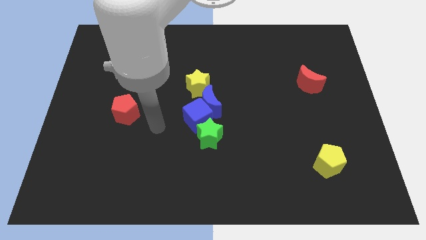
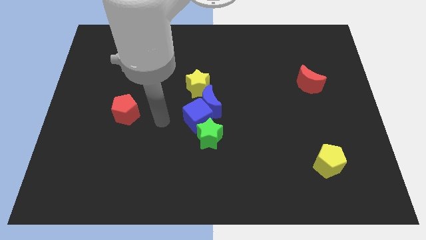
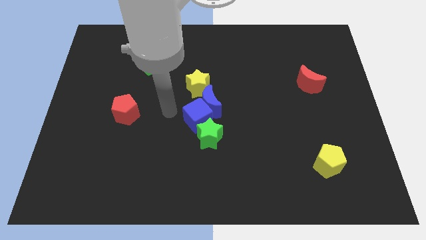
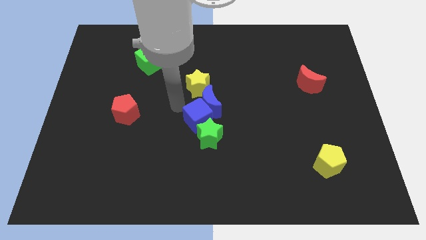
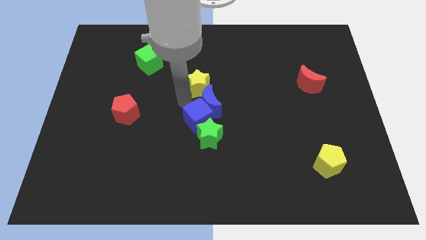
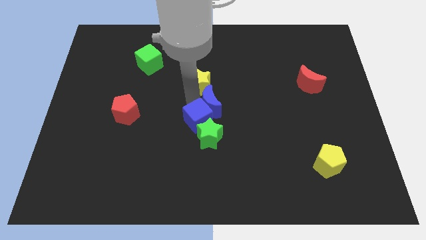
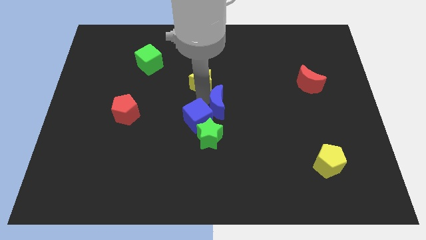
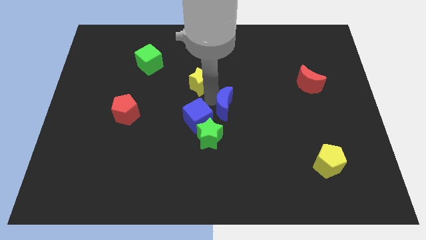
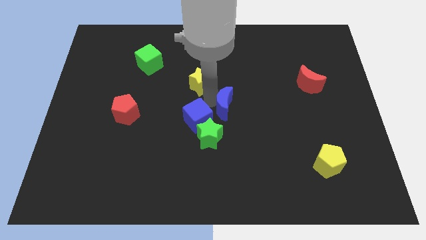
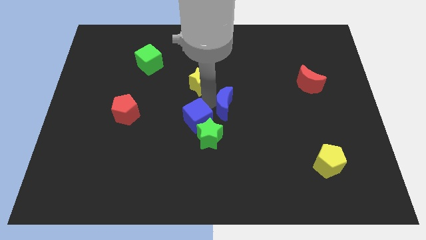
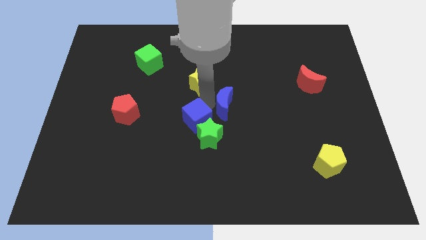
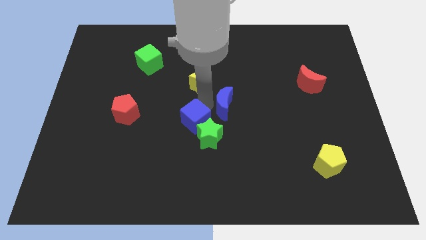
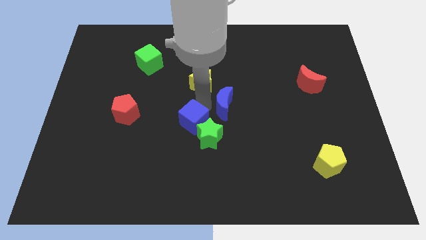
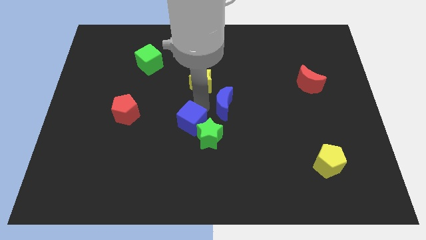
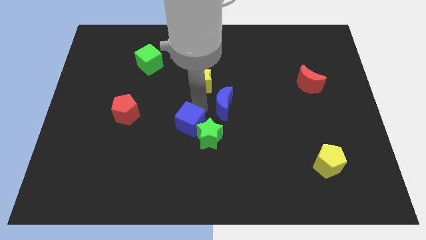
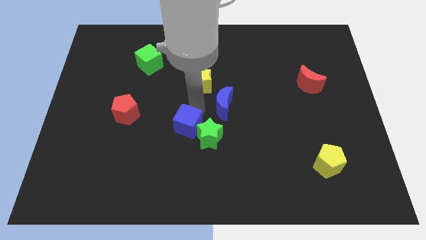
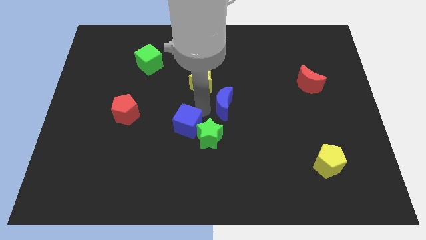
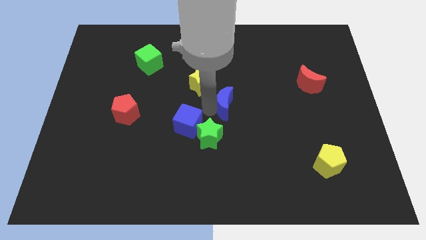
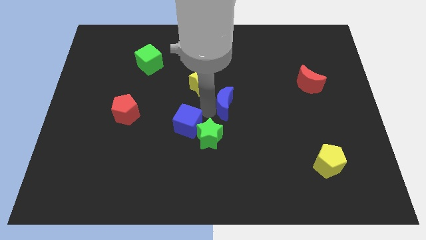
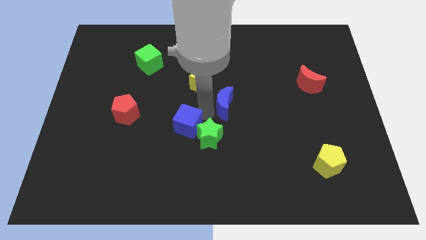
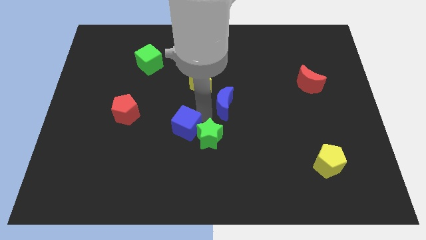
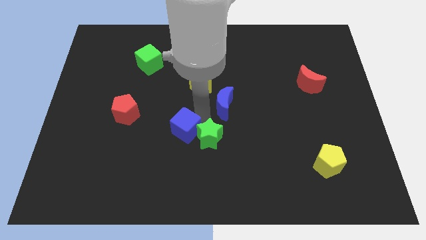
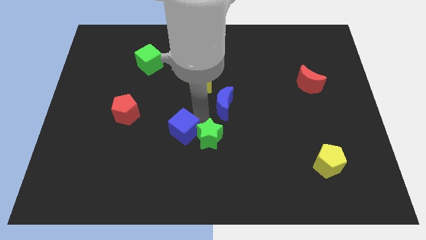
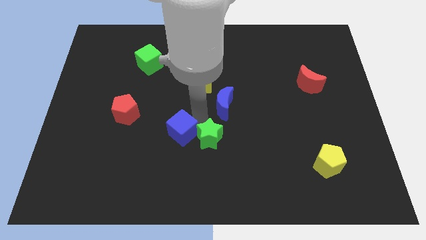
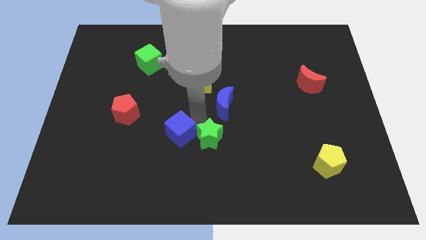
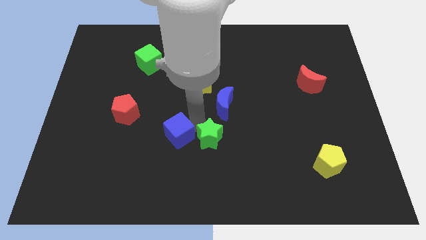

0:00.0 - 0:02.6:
move the blue cube away from the group of blocks

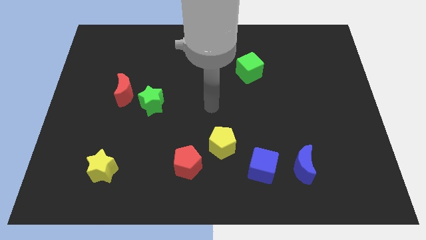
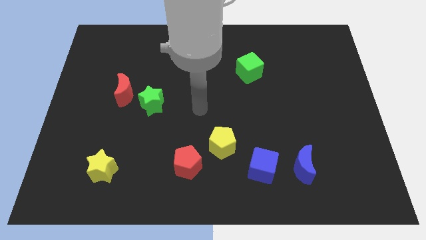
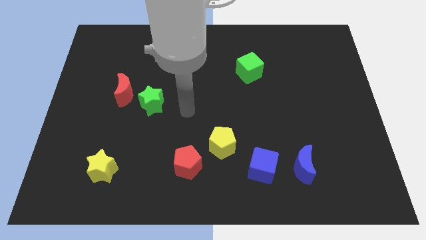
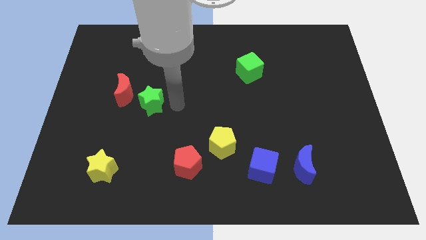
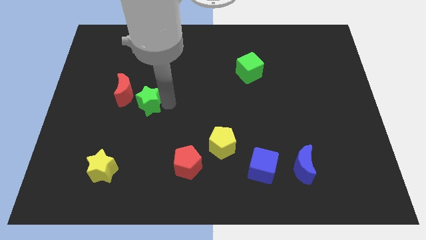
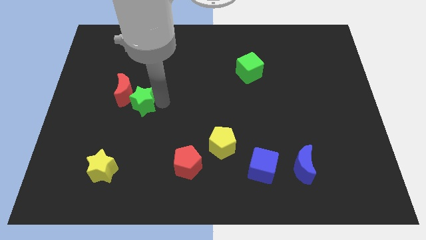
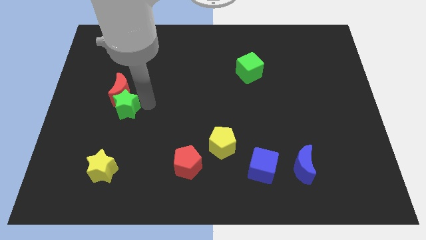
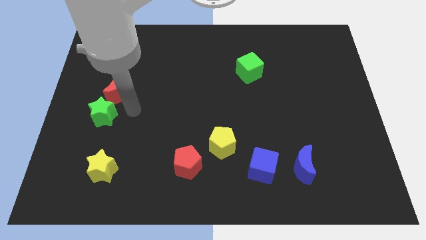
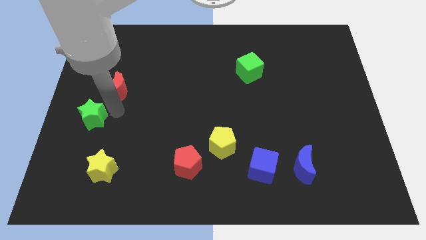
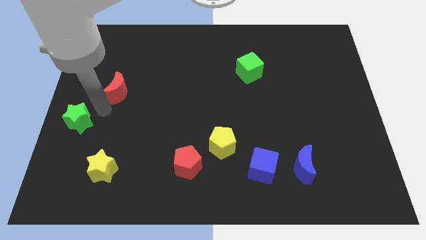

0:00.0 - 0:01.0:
separate the red moon from the green star

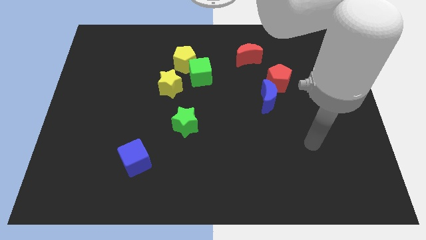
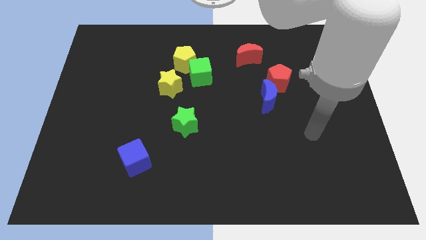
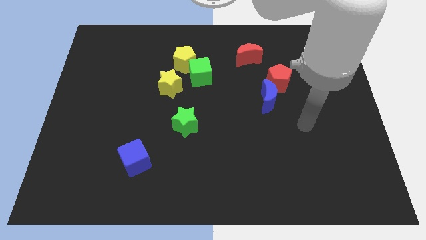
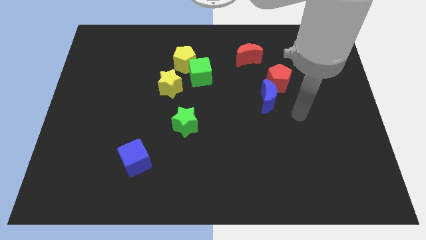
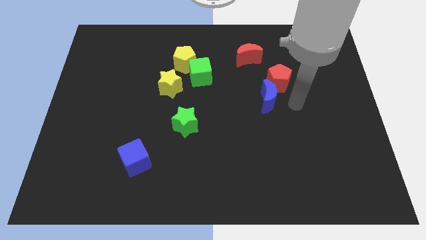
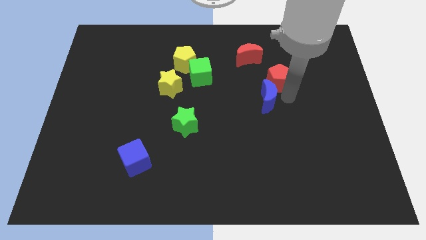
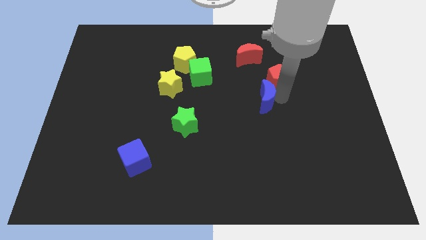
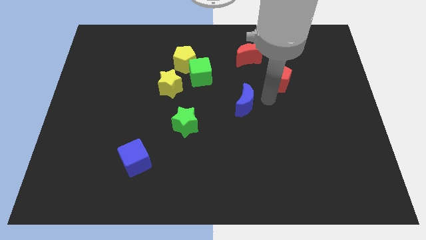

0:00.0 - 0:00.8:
separate the red pentagon from the blue moon

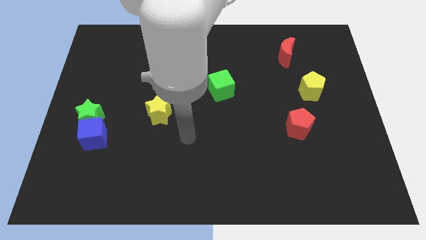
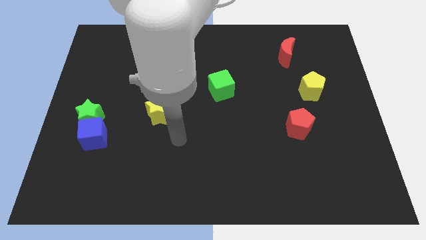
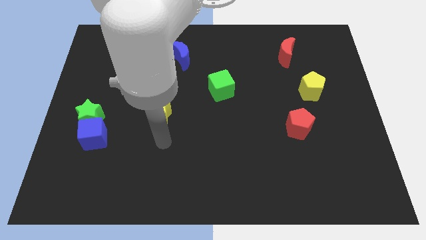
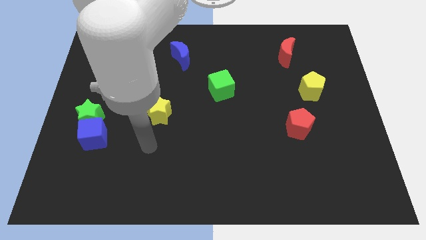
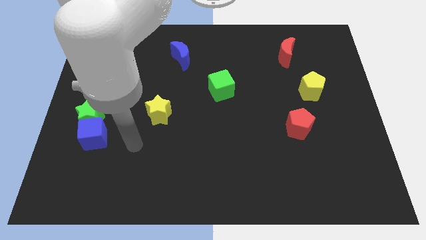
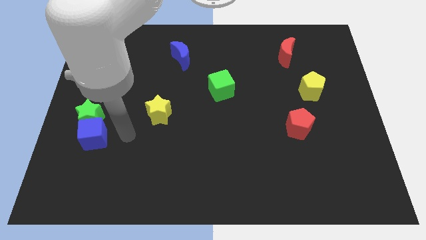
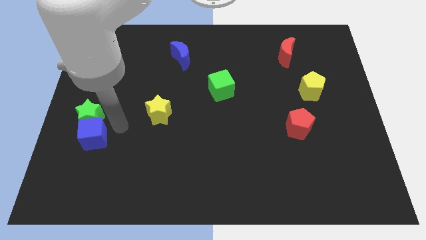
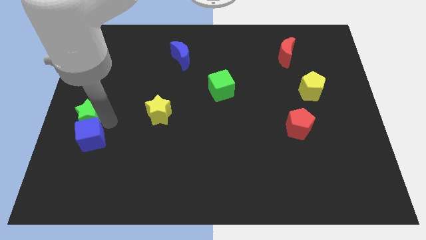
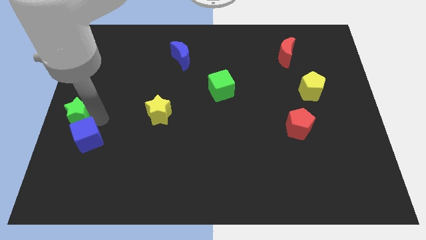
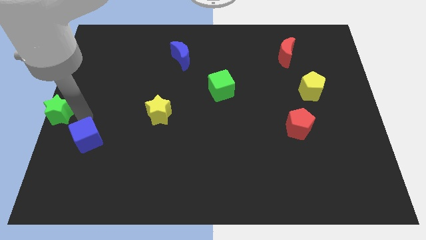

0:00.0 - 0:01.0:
separate the blue cube from the green star

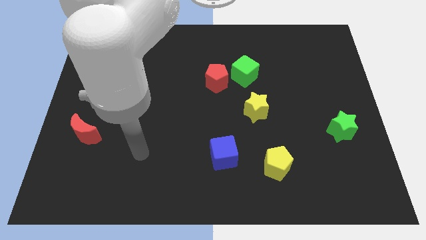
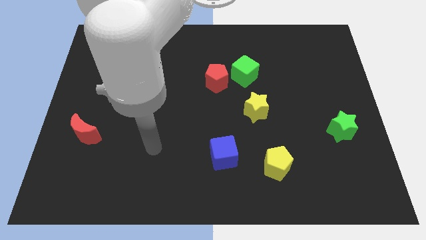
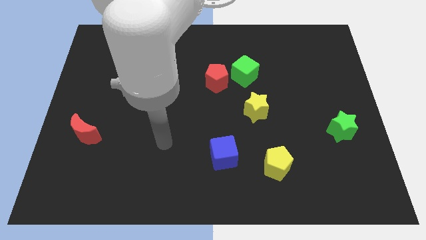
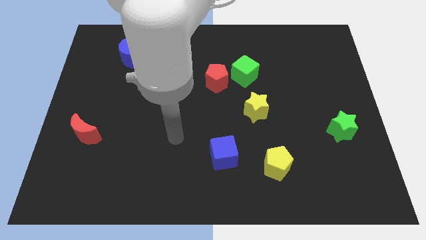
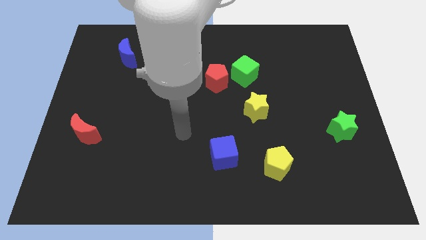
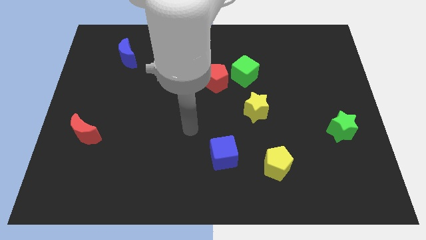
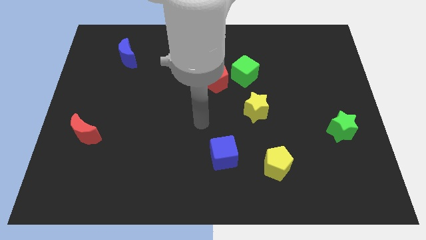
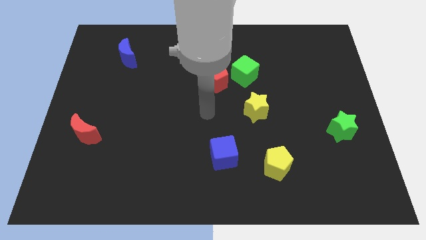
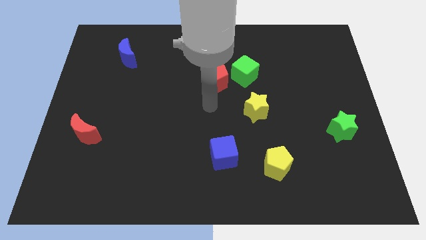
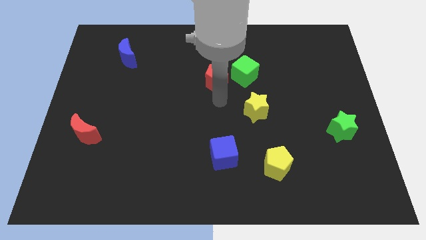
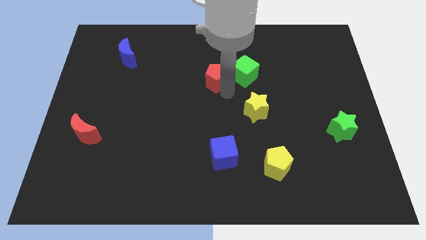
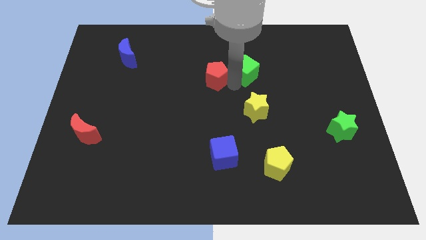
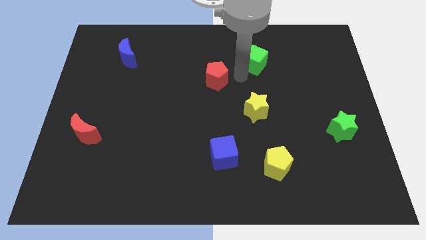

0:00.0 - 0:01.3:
separate the red pentagon from the green cube

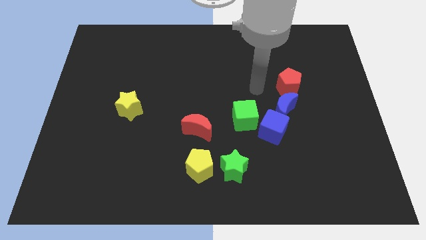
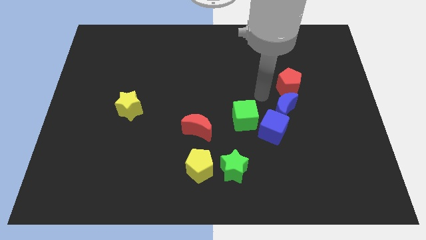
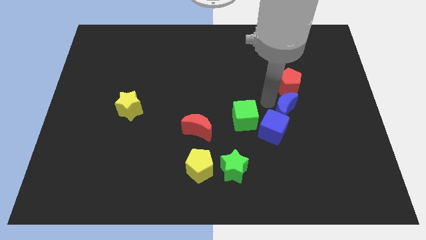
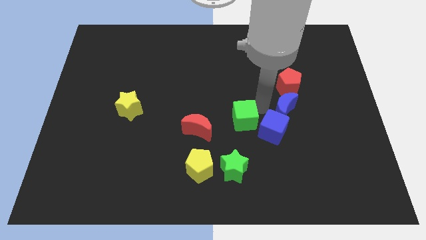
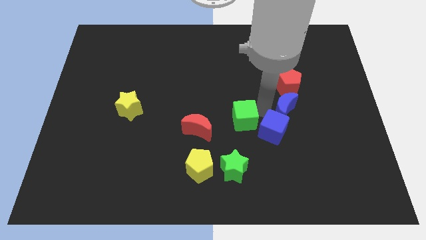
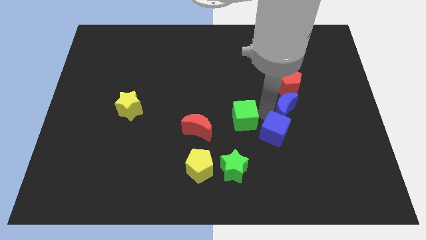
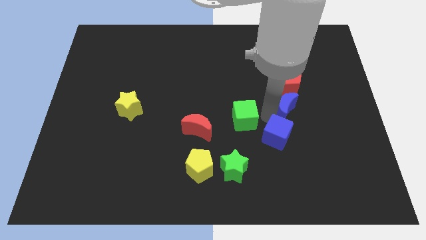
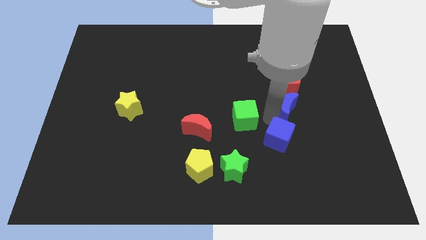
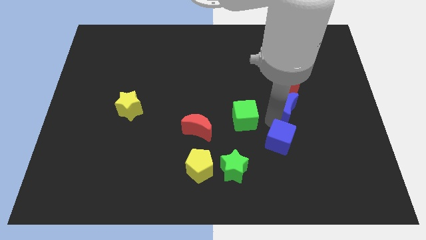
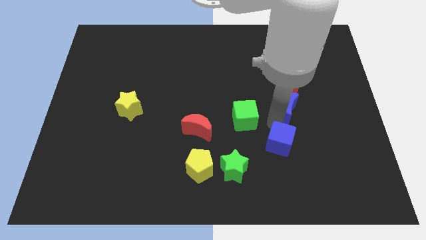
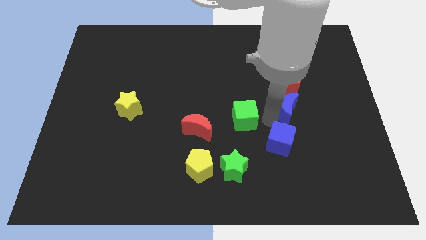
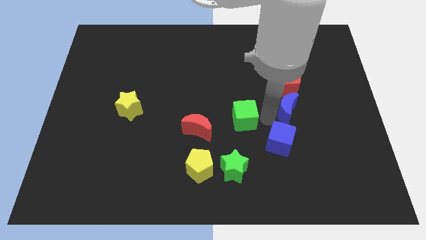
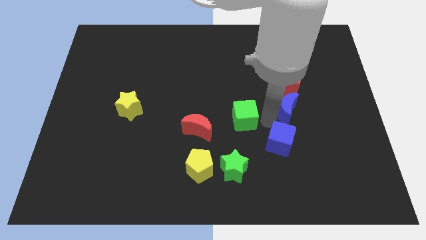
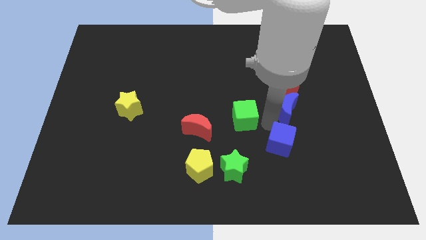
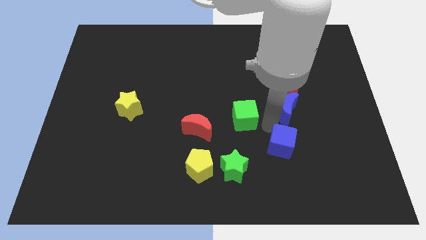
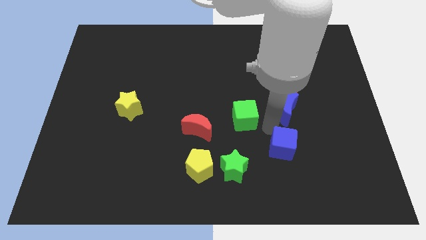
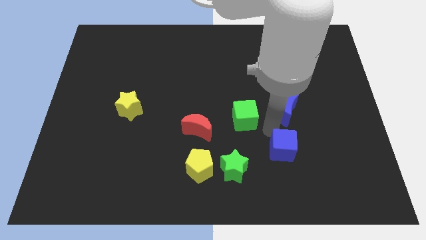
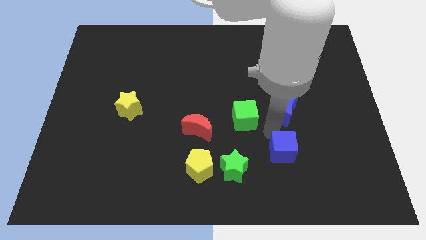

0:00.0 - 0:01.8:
pull the blue cube apart from the blue moon and green cube

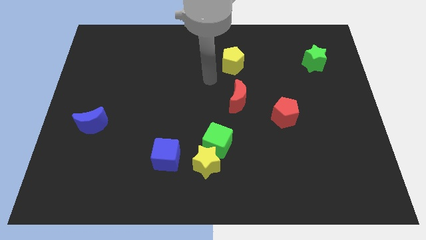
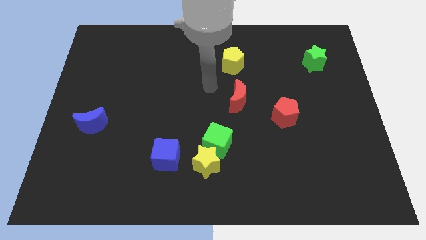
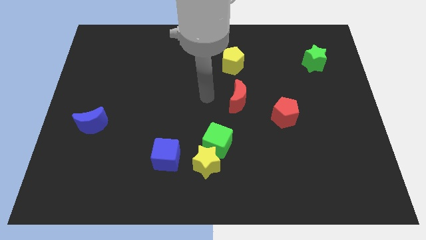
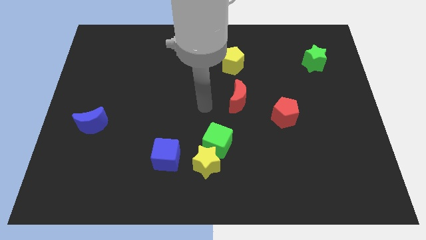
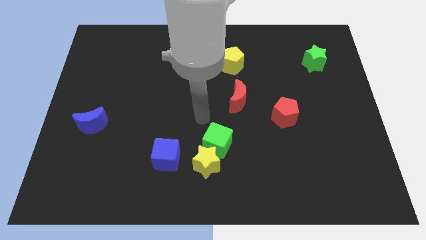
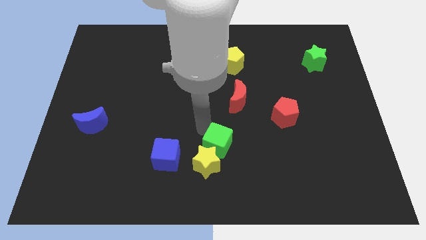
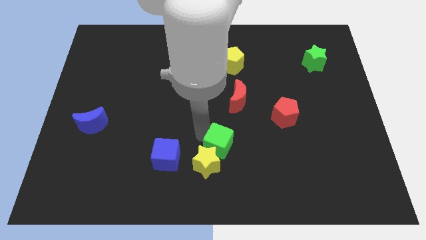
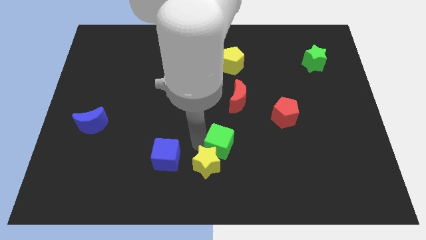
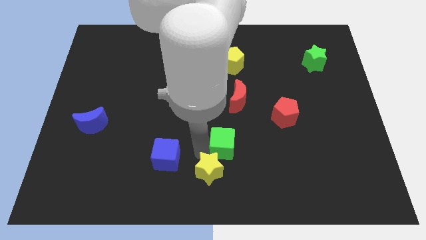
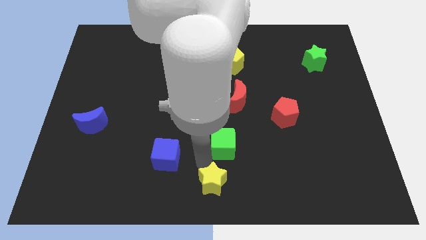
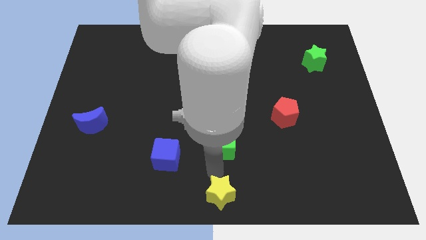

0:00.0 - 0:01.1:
separate the green cube from the yellow star
